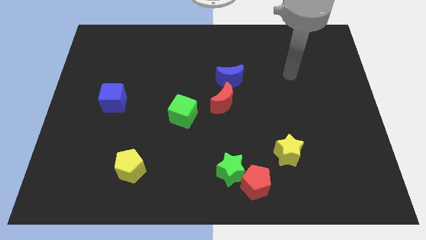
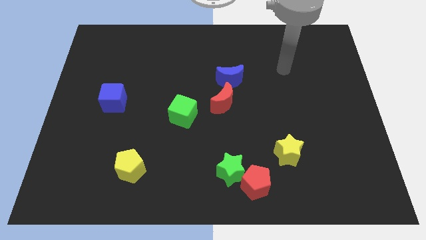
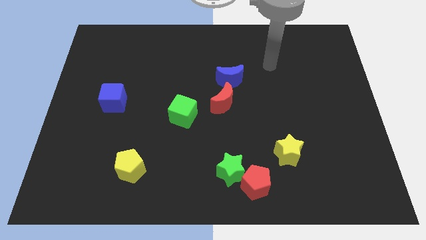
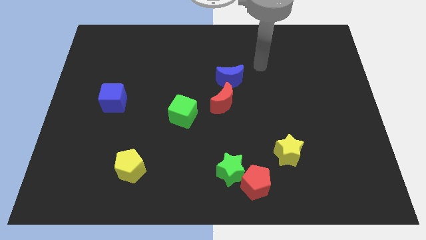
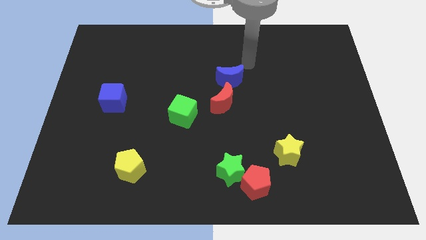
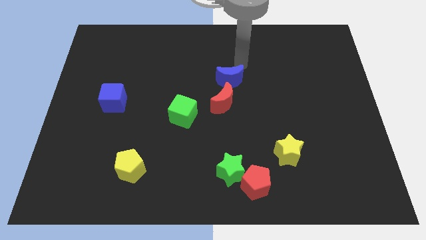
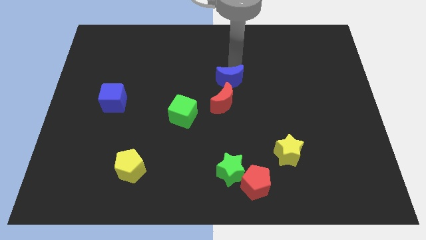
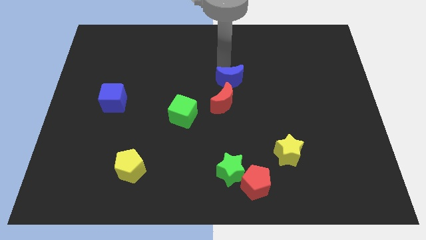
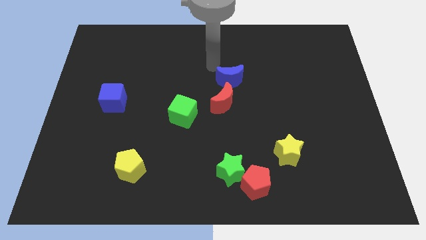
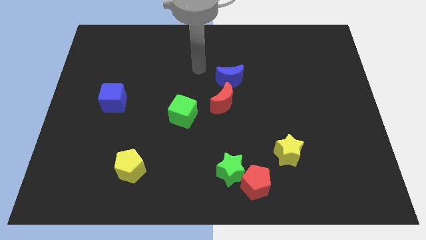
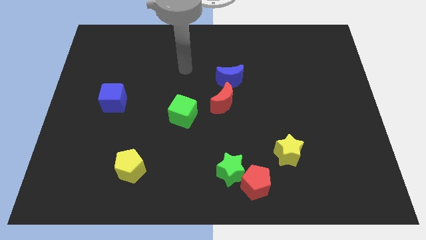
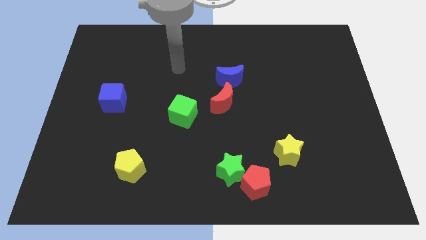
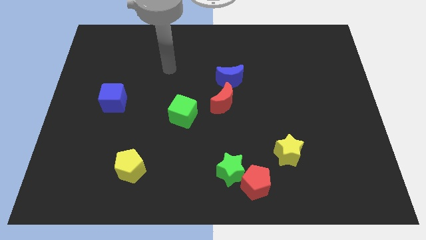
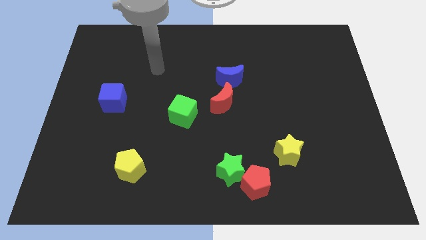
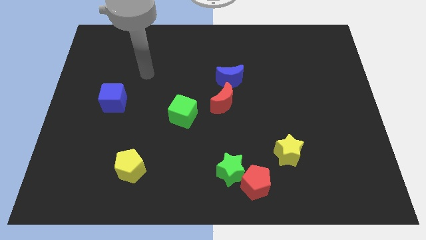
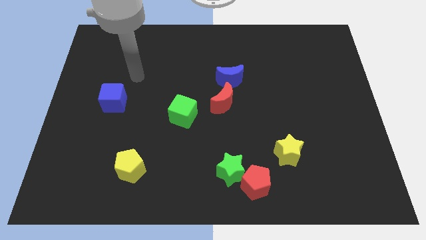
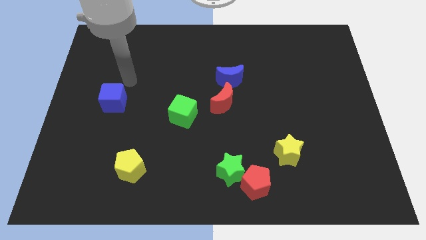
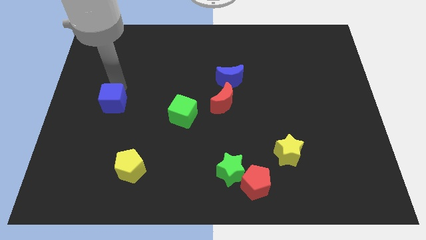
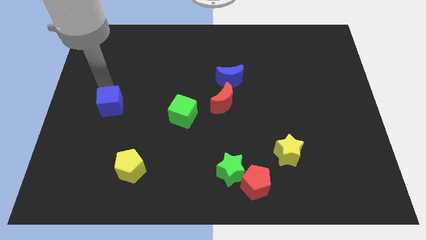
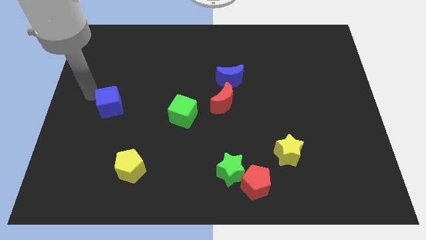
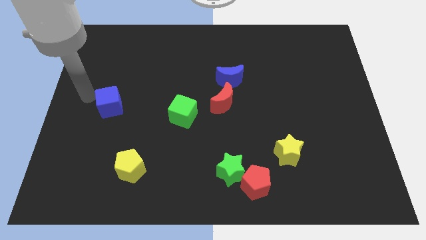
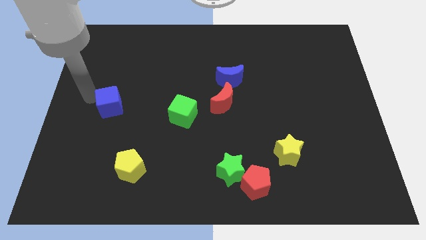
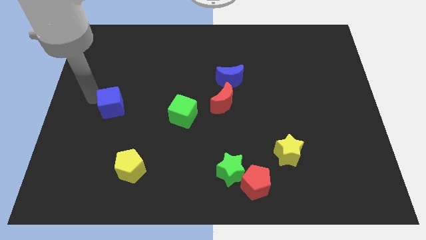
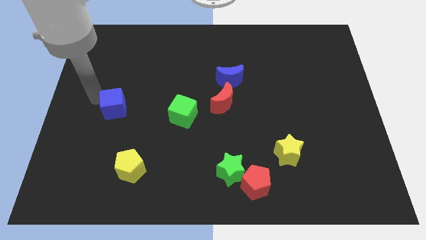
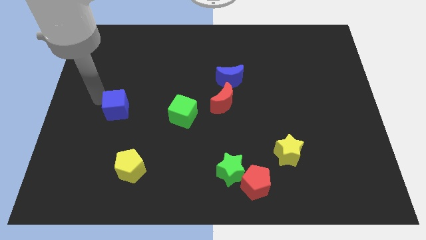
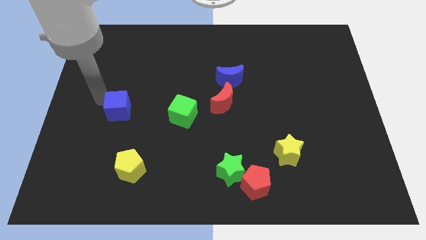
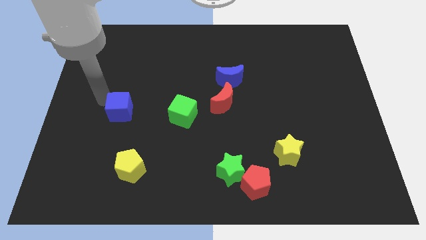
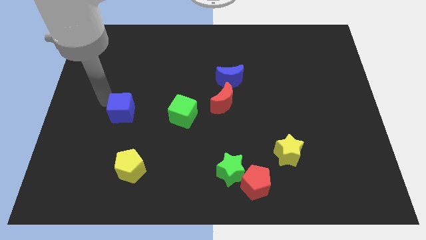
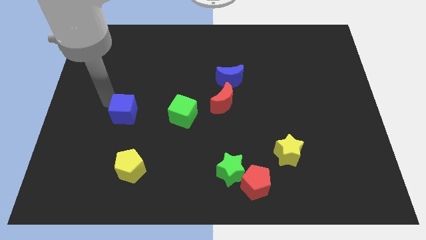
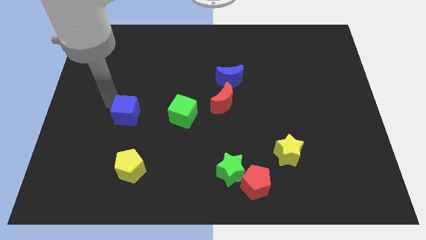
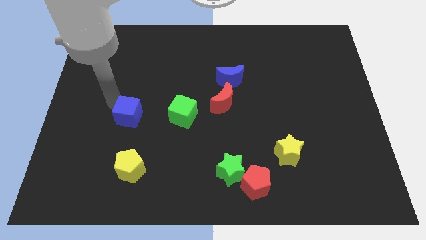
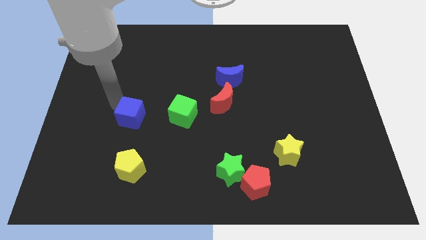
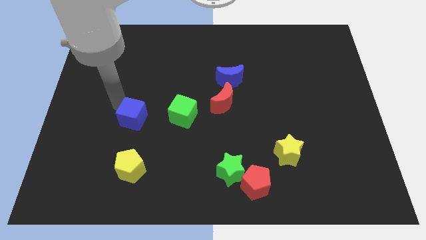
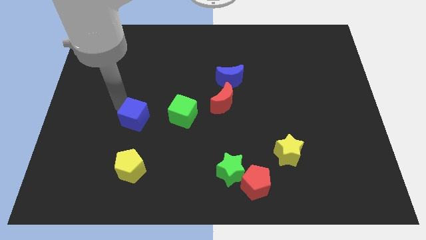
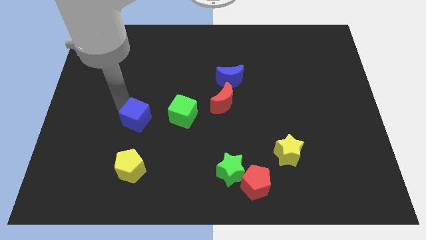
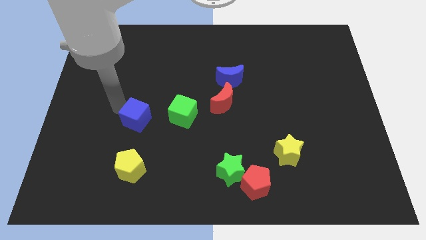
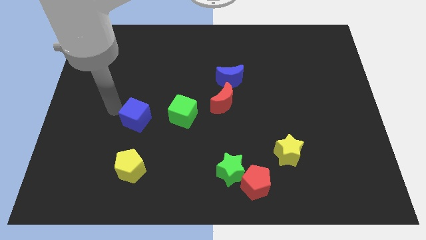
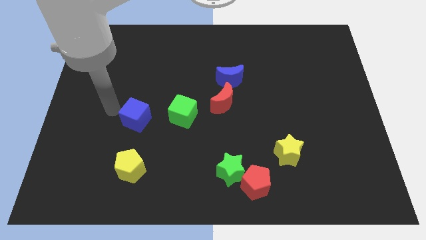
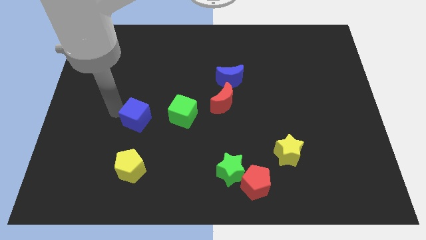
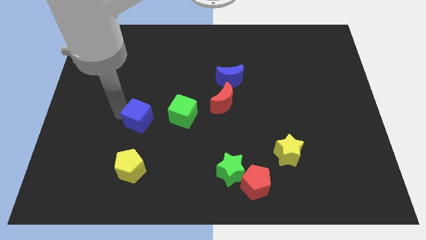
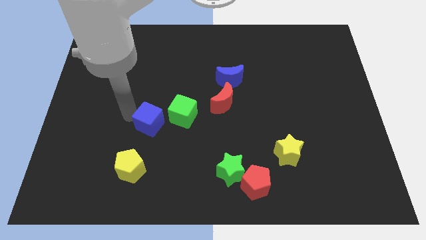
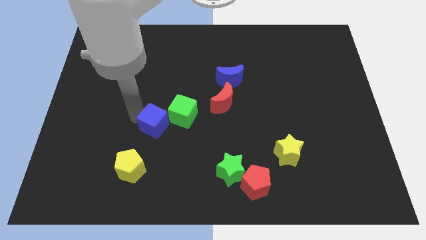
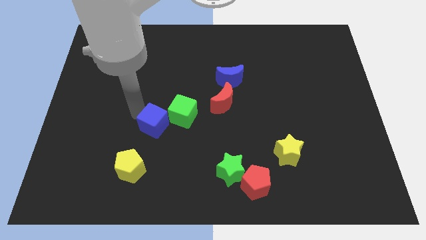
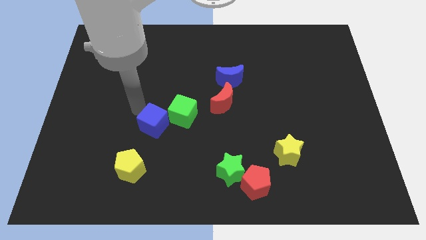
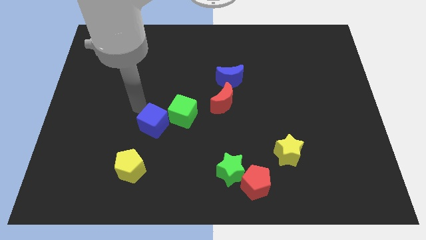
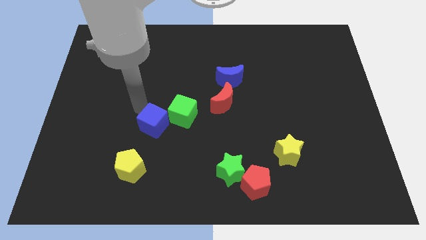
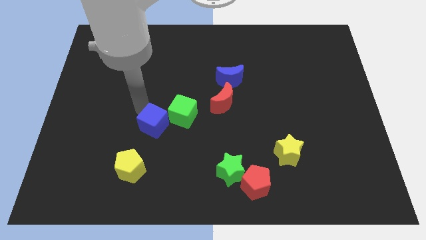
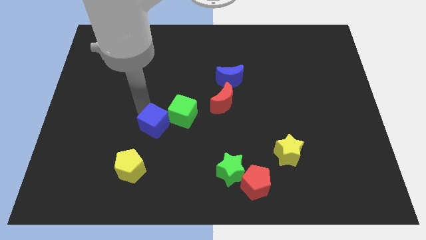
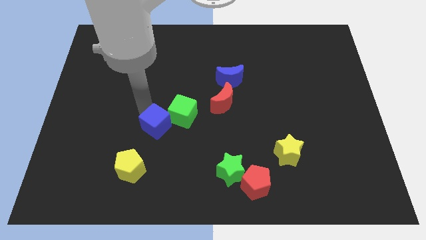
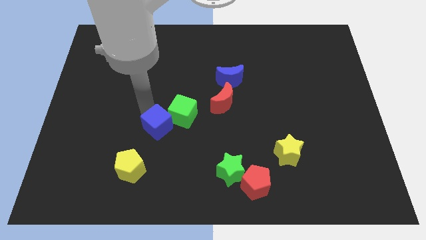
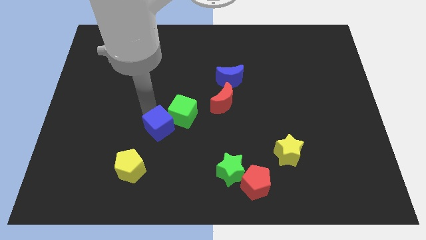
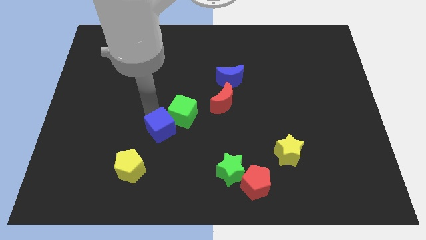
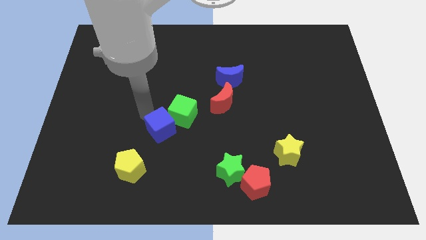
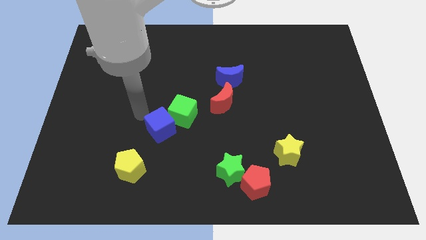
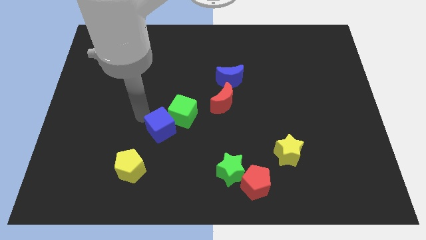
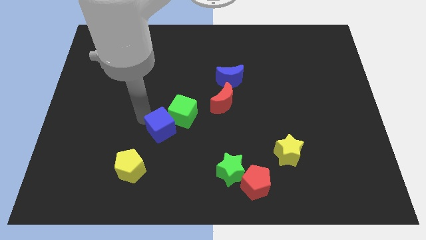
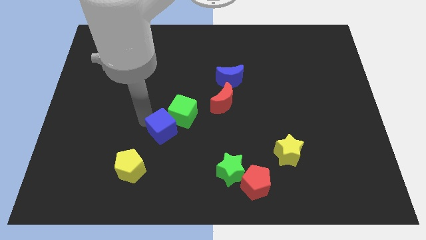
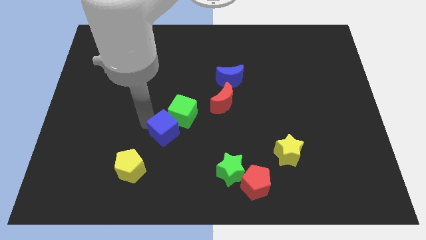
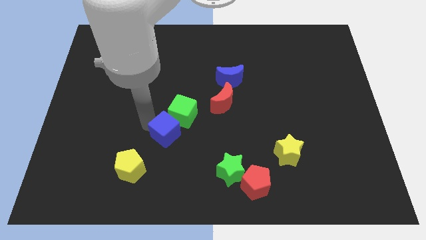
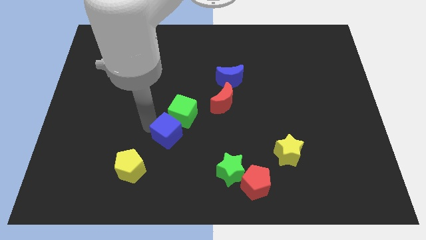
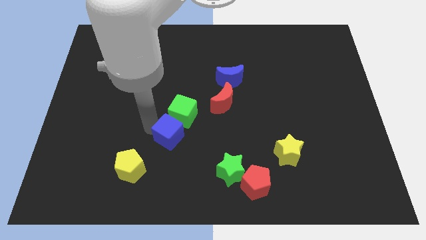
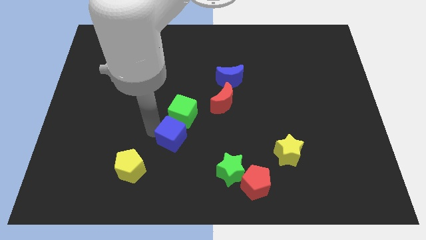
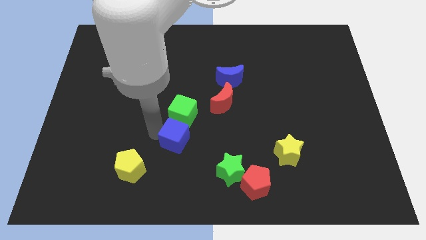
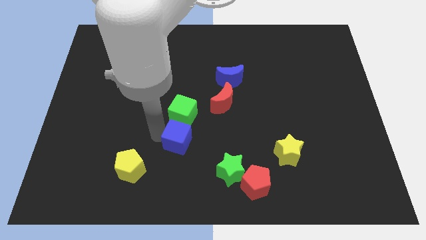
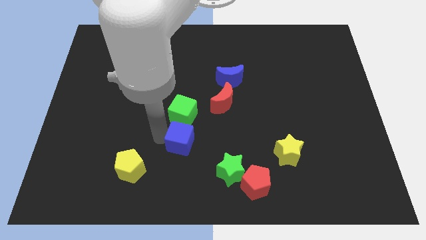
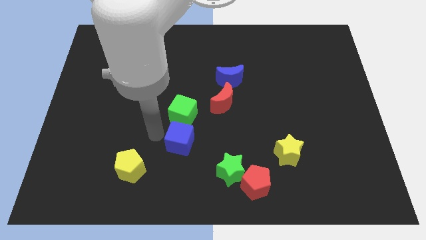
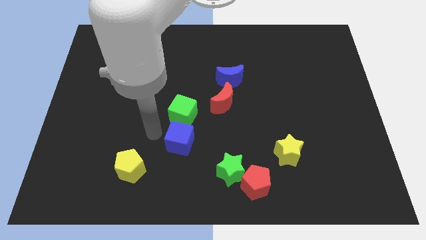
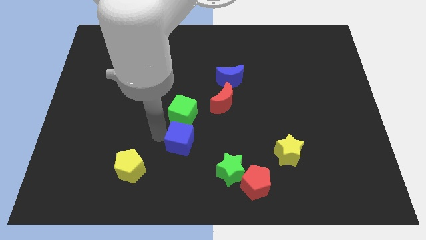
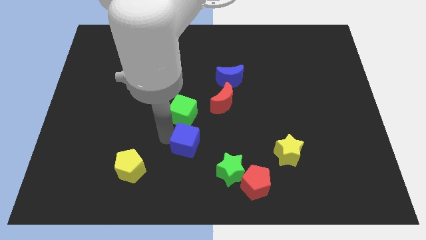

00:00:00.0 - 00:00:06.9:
move the blue cube to the top left of the green star
